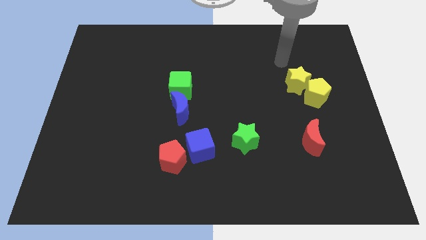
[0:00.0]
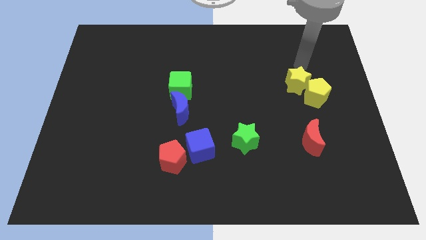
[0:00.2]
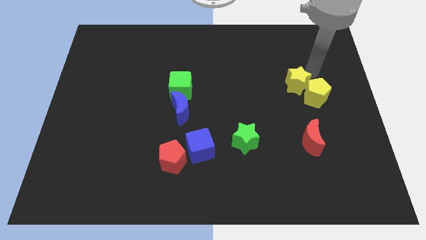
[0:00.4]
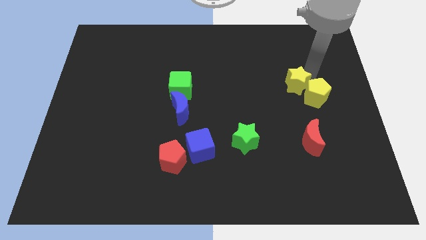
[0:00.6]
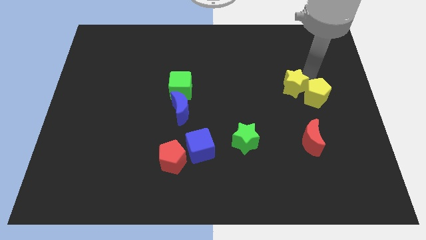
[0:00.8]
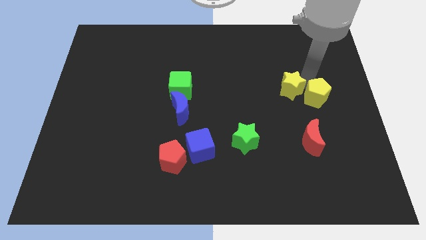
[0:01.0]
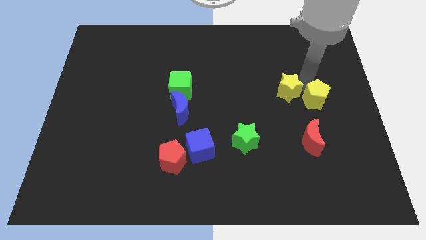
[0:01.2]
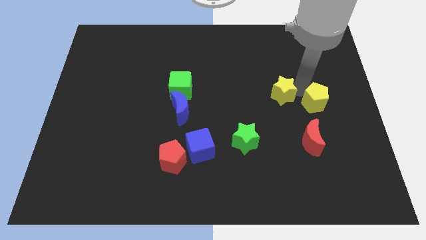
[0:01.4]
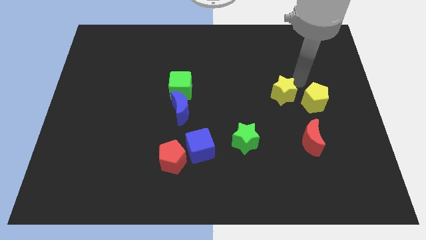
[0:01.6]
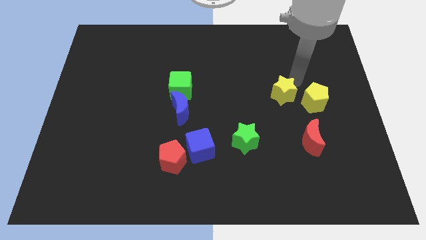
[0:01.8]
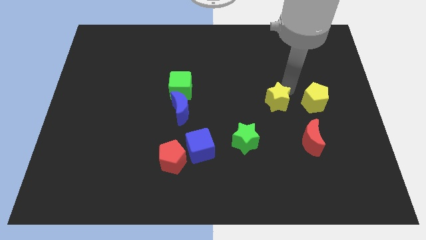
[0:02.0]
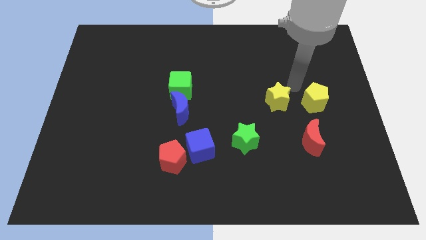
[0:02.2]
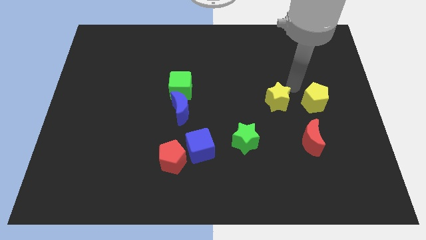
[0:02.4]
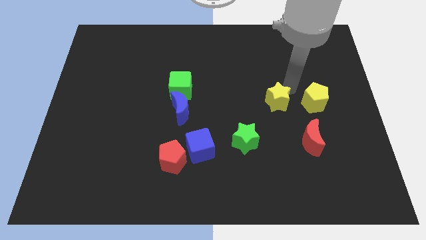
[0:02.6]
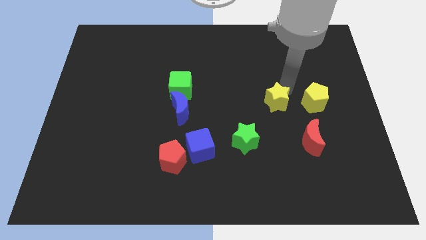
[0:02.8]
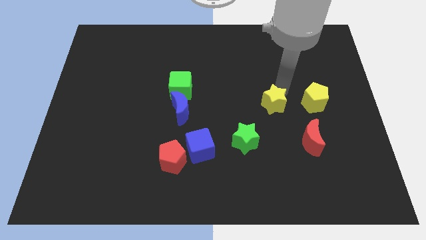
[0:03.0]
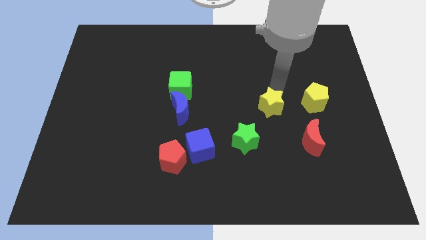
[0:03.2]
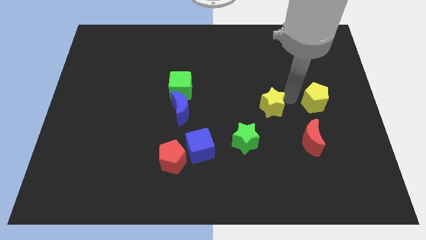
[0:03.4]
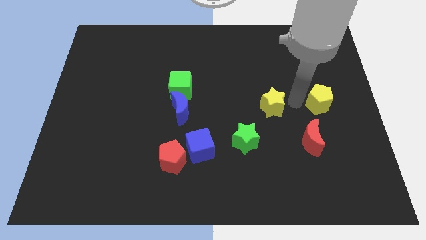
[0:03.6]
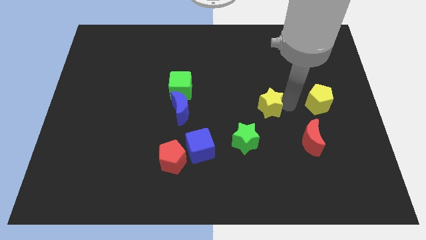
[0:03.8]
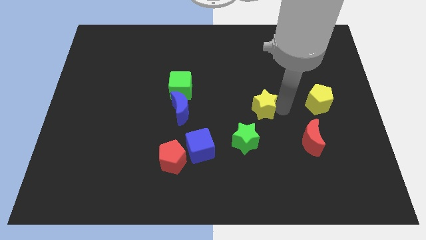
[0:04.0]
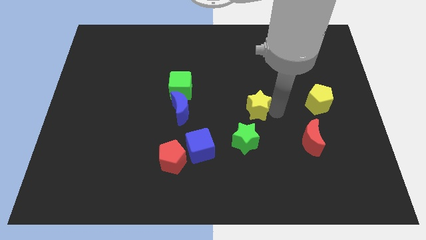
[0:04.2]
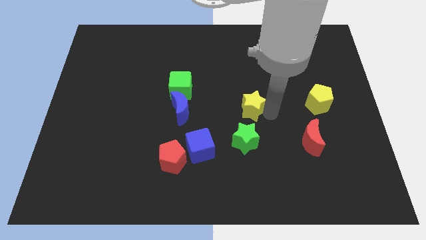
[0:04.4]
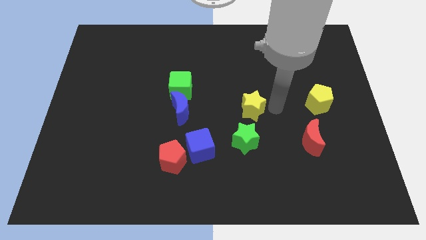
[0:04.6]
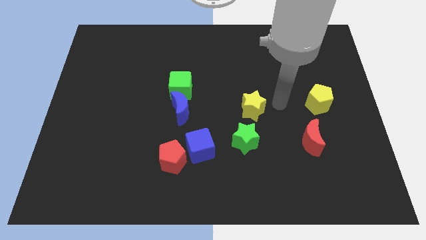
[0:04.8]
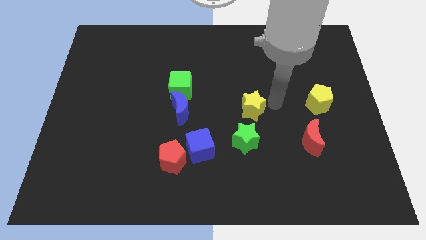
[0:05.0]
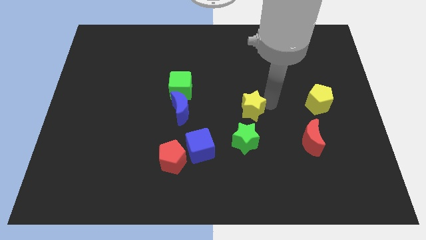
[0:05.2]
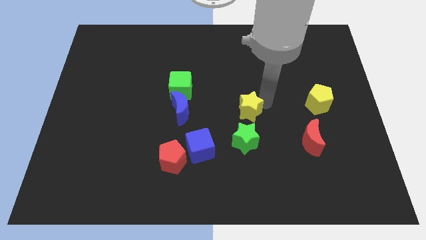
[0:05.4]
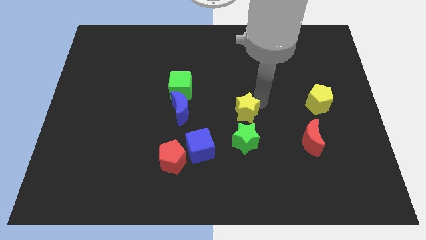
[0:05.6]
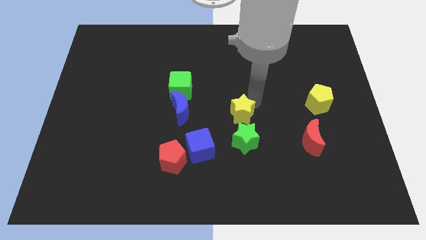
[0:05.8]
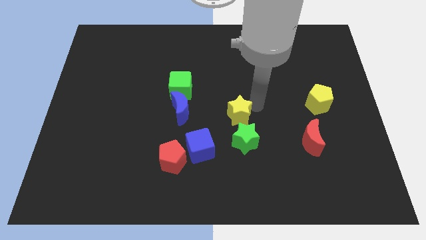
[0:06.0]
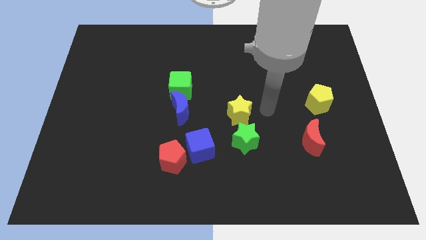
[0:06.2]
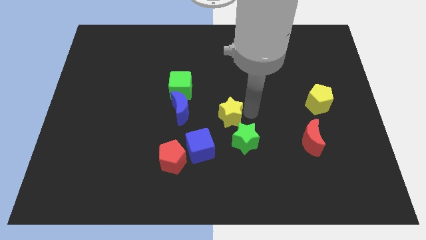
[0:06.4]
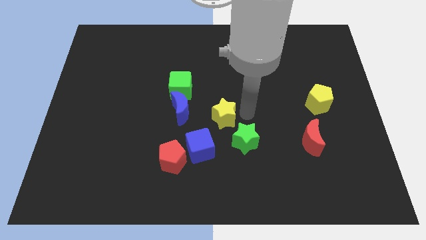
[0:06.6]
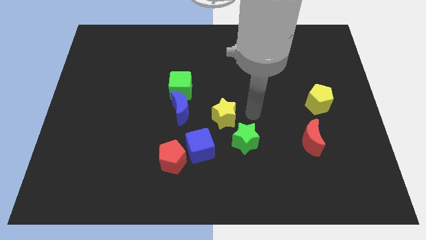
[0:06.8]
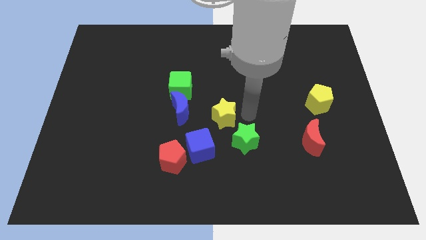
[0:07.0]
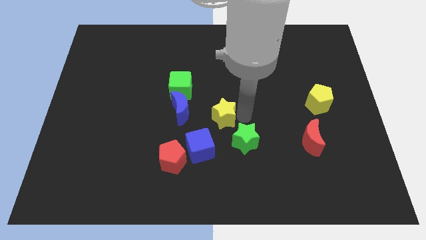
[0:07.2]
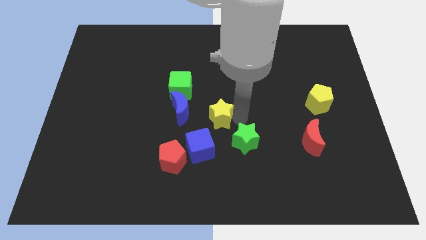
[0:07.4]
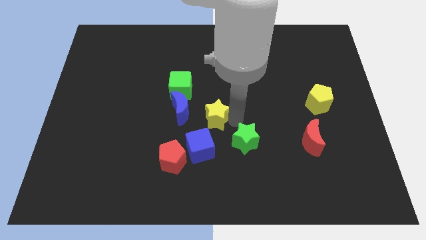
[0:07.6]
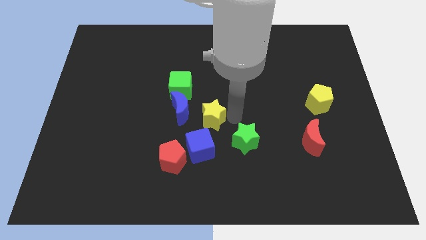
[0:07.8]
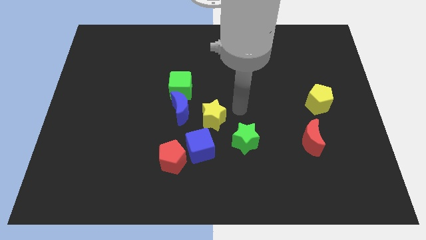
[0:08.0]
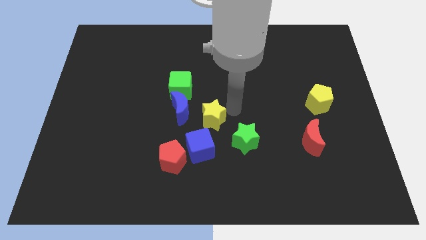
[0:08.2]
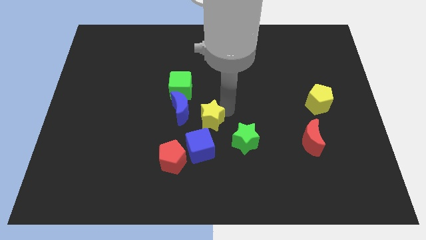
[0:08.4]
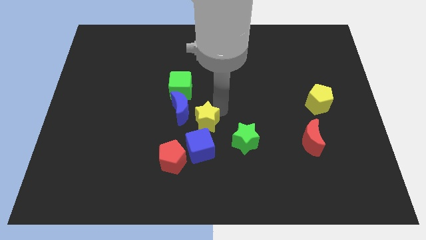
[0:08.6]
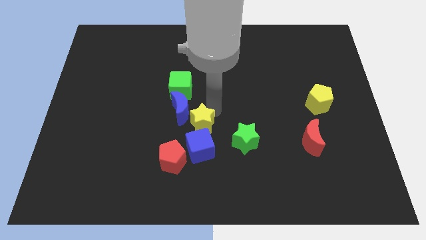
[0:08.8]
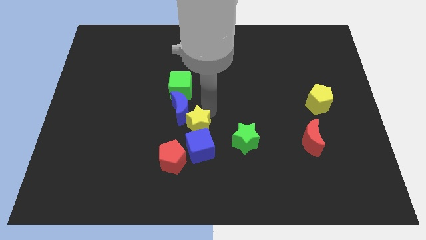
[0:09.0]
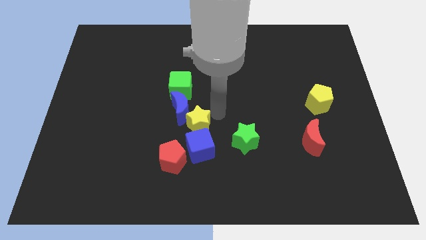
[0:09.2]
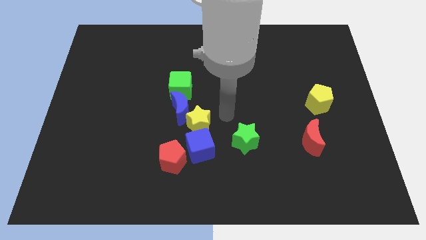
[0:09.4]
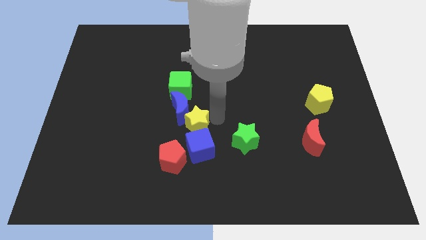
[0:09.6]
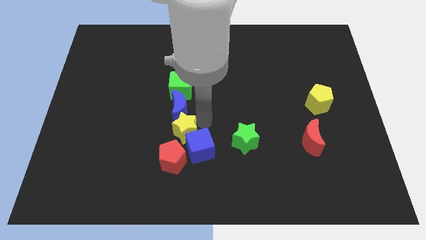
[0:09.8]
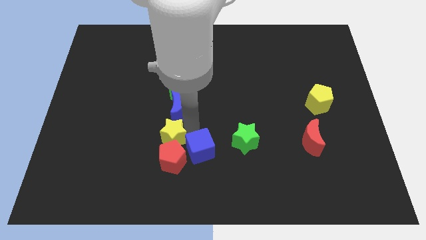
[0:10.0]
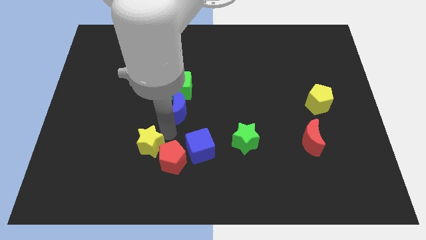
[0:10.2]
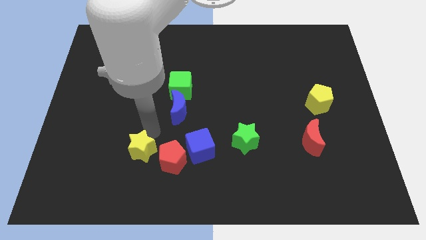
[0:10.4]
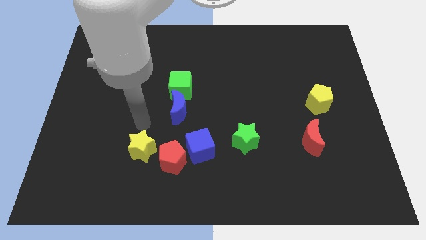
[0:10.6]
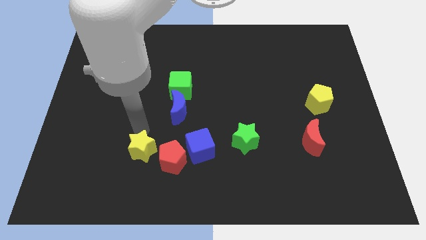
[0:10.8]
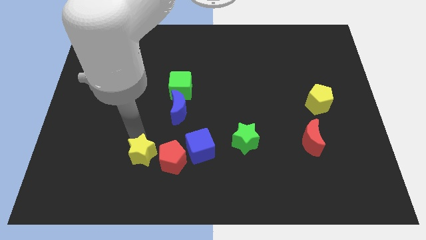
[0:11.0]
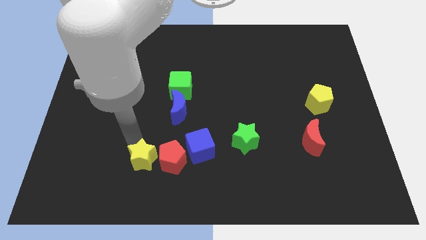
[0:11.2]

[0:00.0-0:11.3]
put the yellow star to the bottom left of the red pentagon

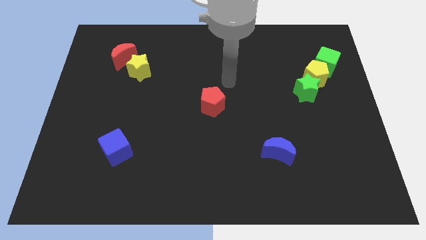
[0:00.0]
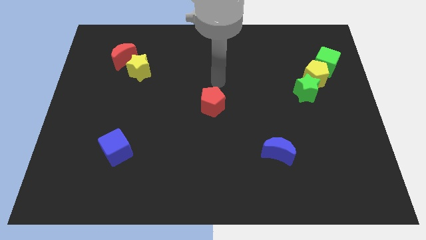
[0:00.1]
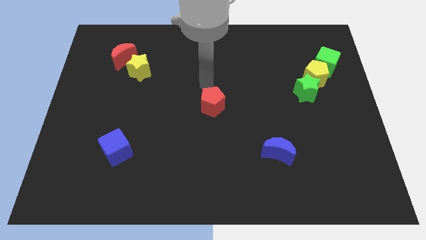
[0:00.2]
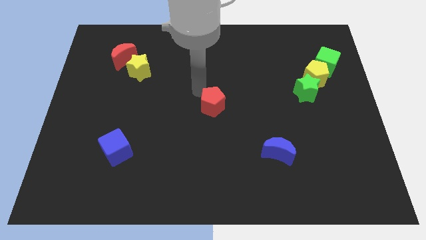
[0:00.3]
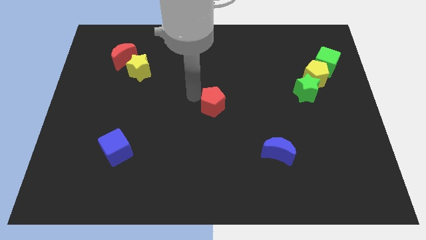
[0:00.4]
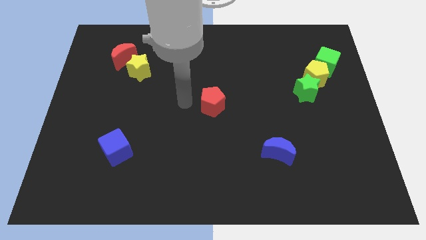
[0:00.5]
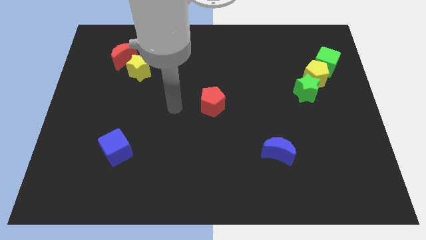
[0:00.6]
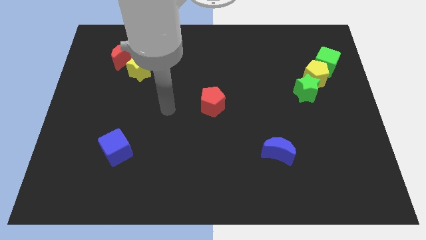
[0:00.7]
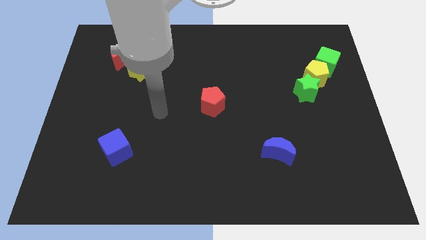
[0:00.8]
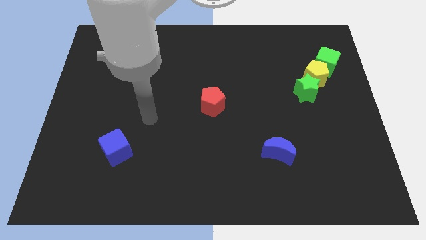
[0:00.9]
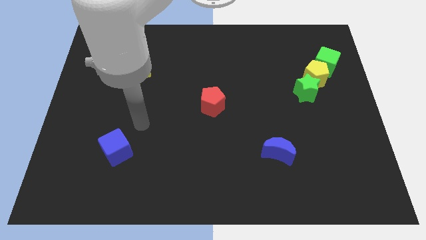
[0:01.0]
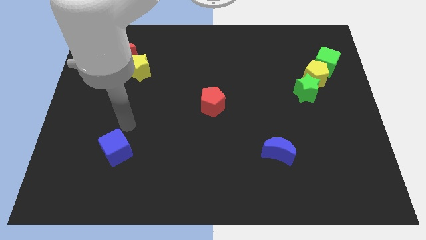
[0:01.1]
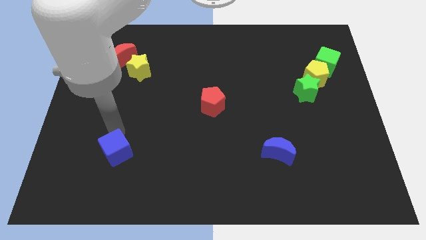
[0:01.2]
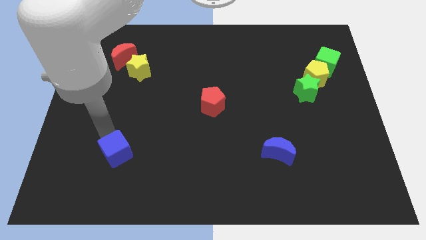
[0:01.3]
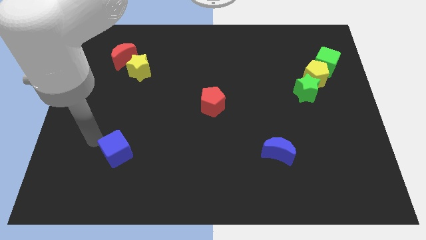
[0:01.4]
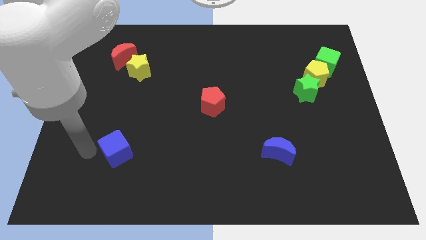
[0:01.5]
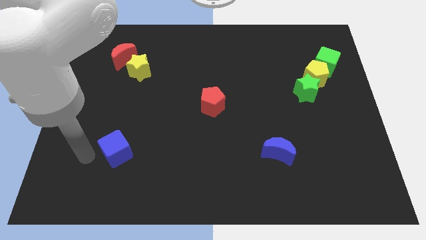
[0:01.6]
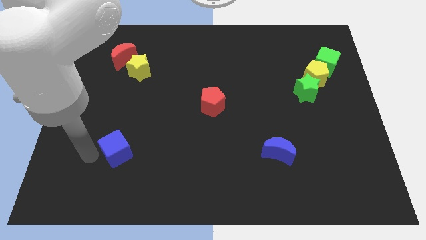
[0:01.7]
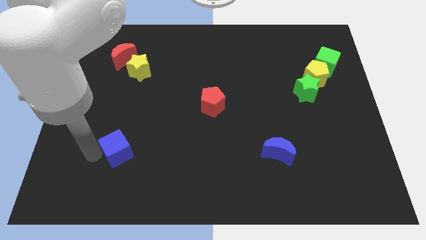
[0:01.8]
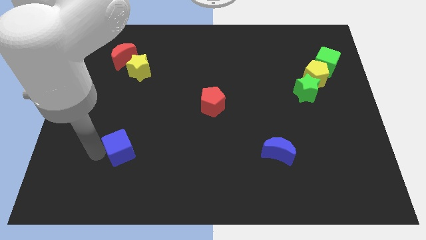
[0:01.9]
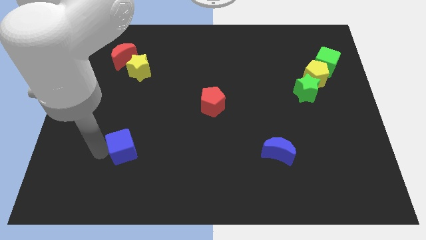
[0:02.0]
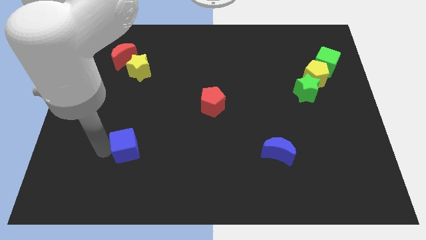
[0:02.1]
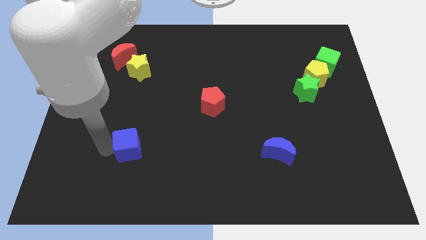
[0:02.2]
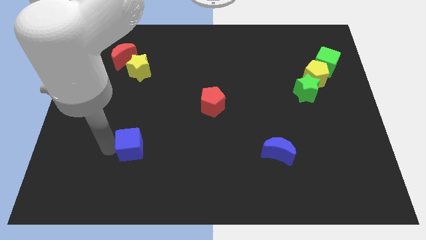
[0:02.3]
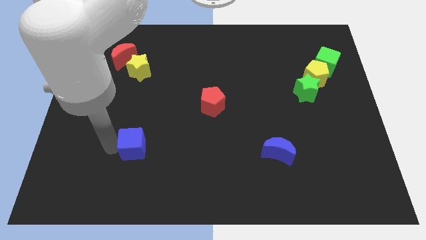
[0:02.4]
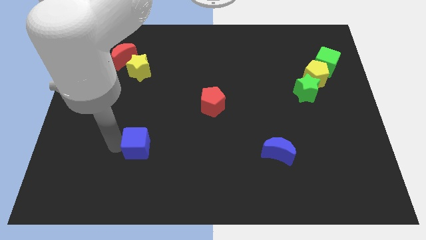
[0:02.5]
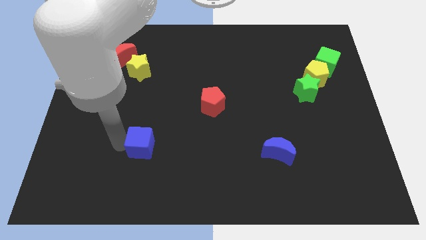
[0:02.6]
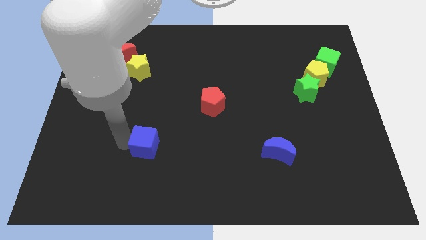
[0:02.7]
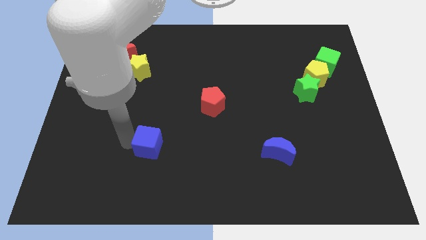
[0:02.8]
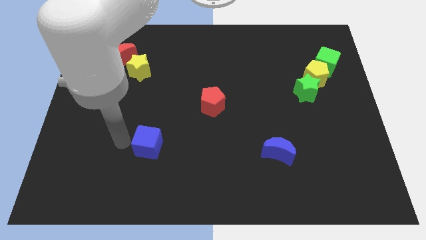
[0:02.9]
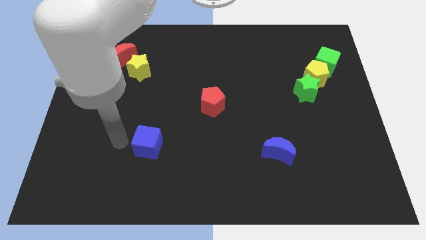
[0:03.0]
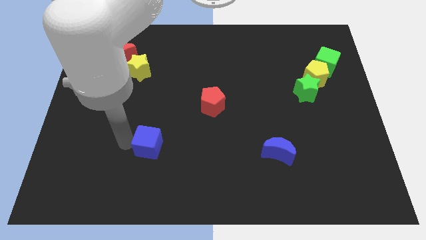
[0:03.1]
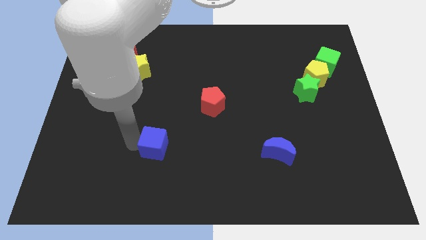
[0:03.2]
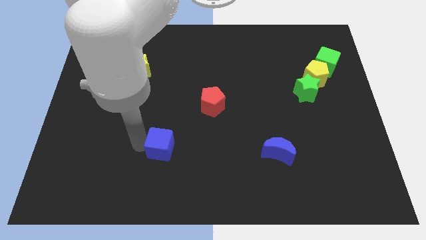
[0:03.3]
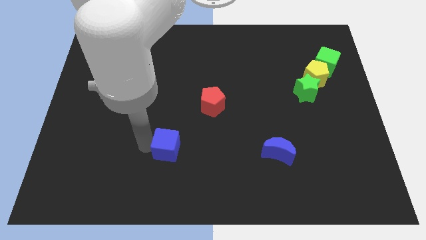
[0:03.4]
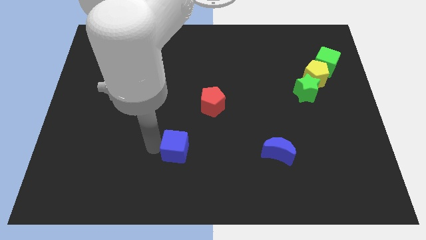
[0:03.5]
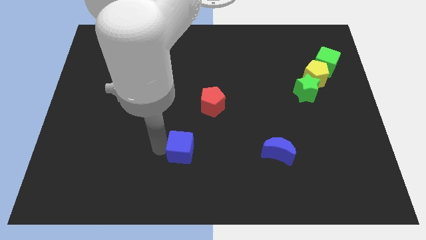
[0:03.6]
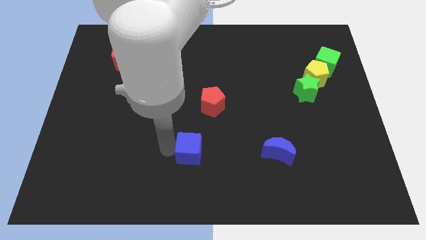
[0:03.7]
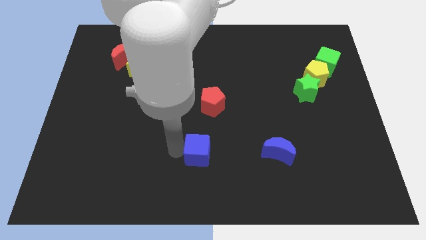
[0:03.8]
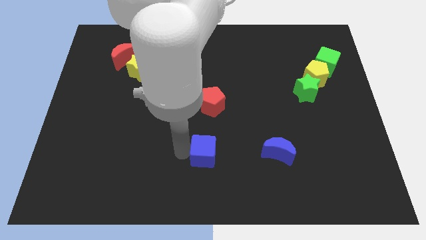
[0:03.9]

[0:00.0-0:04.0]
put the blue cube left of the blue moon
